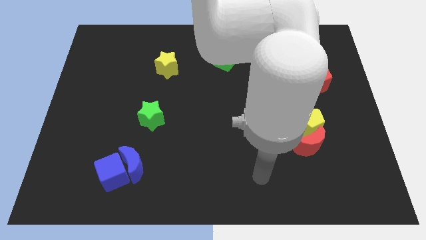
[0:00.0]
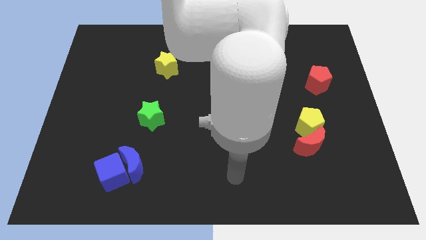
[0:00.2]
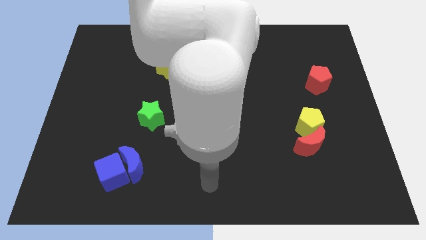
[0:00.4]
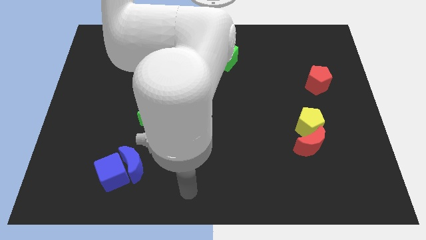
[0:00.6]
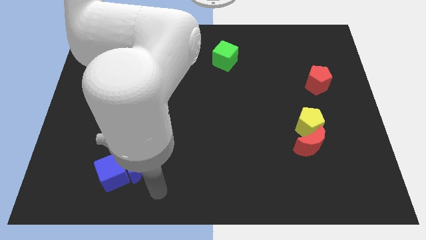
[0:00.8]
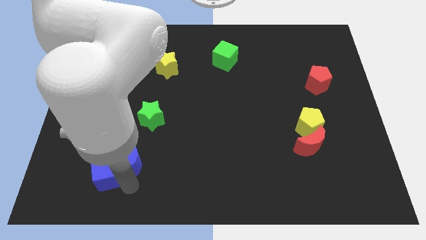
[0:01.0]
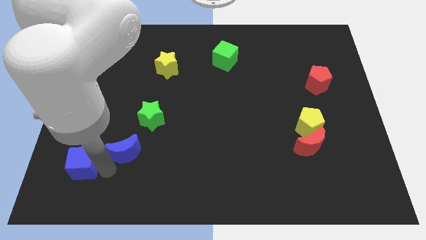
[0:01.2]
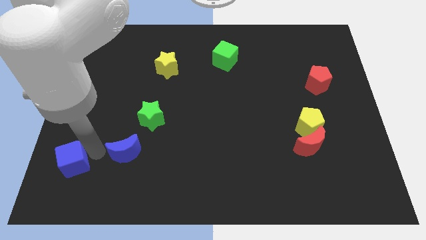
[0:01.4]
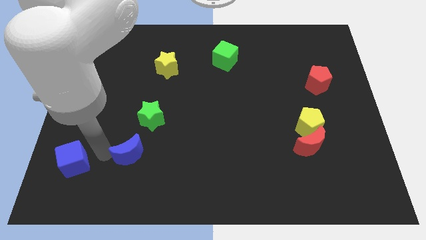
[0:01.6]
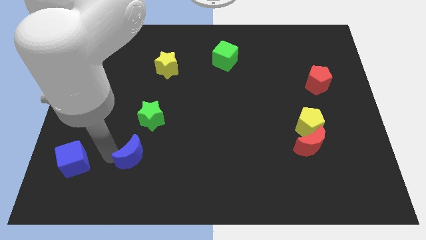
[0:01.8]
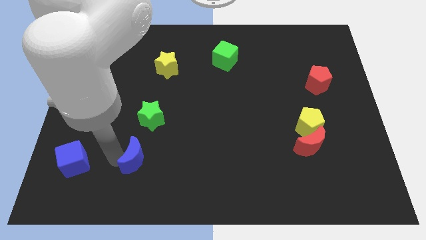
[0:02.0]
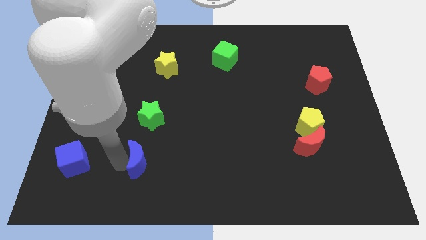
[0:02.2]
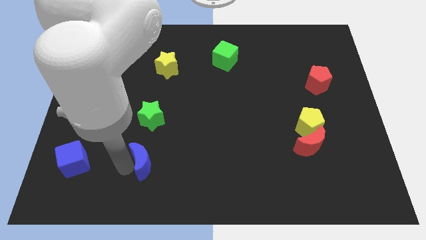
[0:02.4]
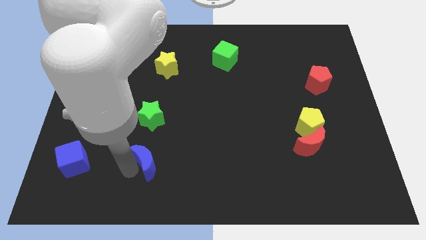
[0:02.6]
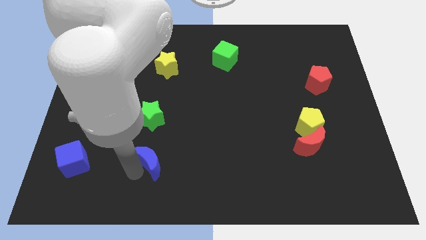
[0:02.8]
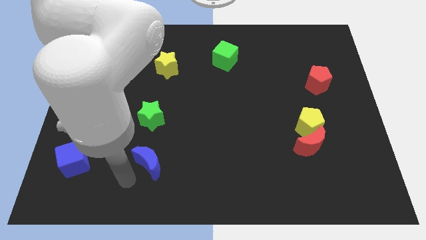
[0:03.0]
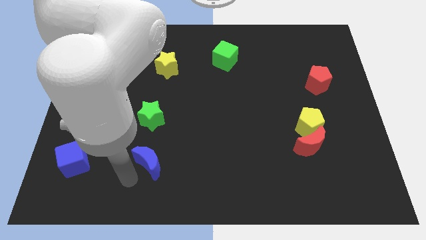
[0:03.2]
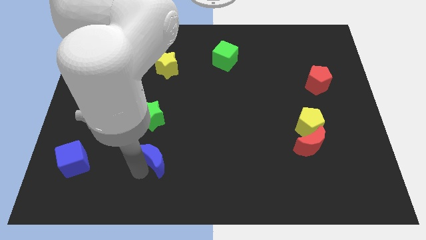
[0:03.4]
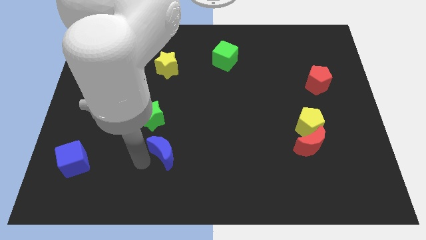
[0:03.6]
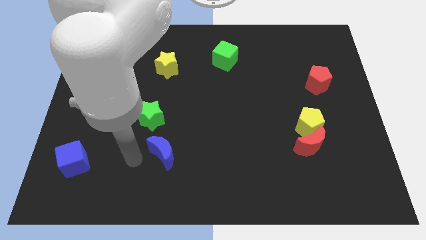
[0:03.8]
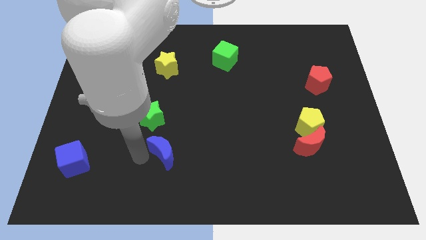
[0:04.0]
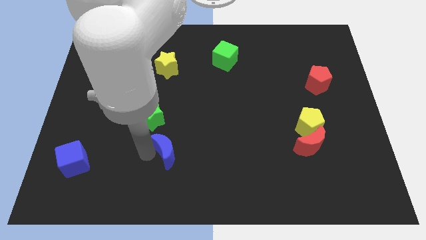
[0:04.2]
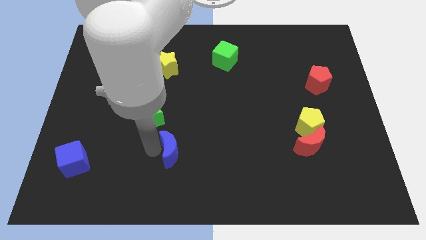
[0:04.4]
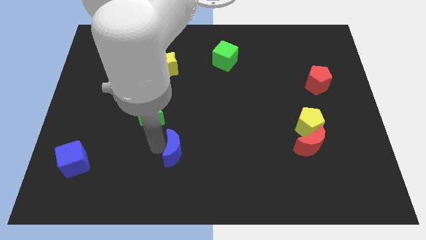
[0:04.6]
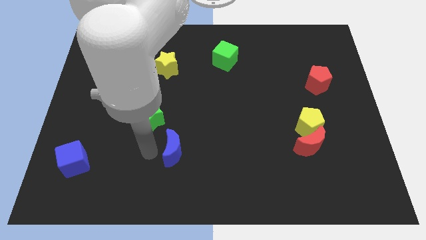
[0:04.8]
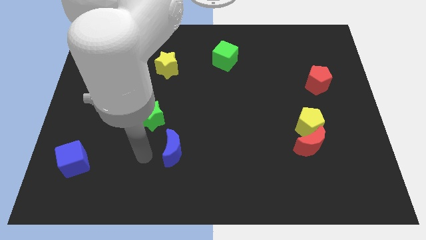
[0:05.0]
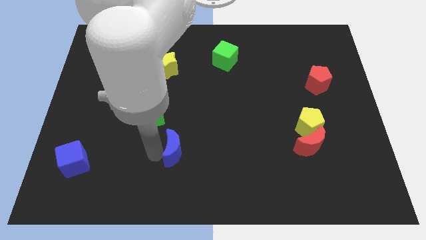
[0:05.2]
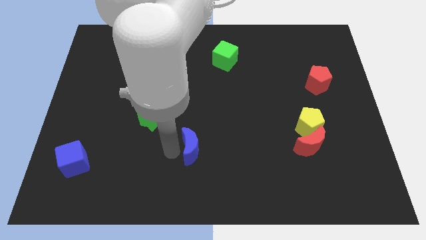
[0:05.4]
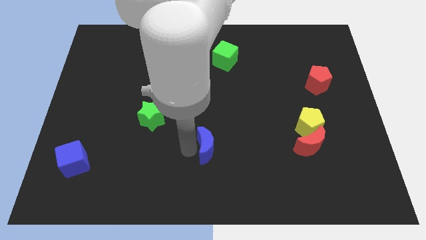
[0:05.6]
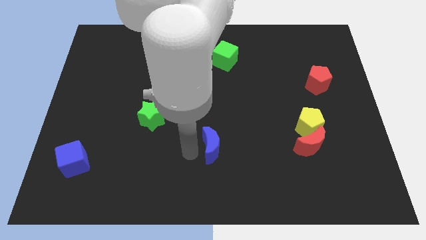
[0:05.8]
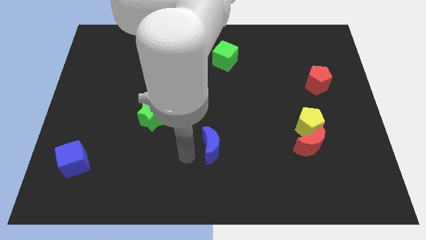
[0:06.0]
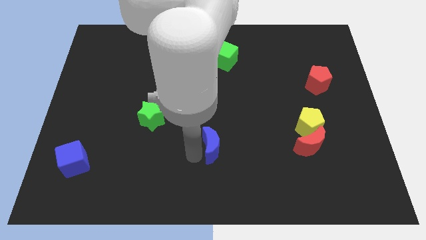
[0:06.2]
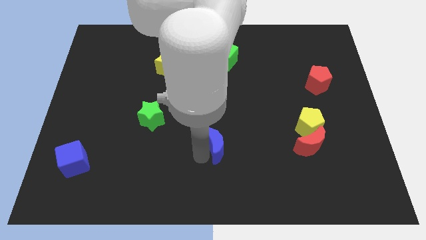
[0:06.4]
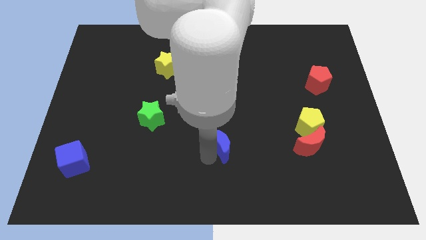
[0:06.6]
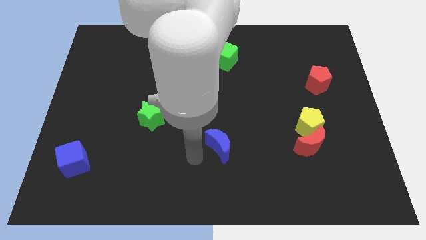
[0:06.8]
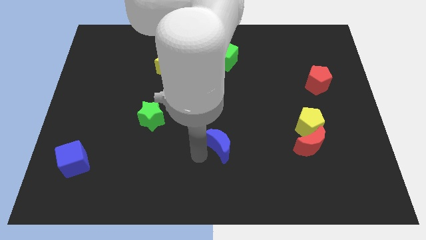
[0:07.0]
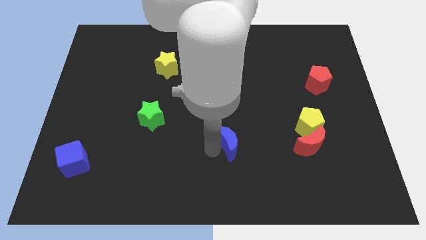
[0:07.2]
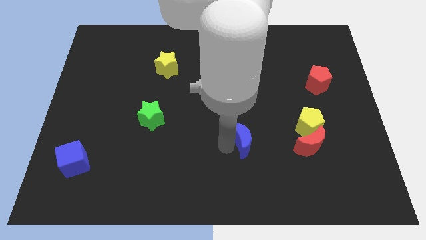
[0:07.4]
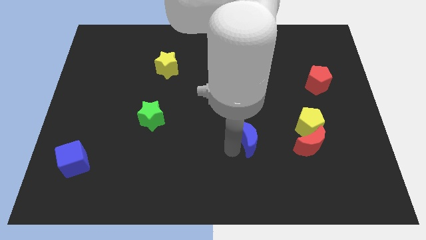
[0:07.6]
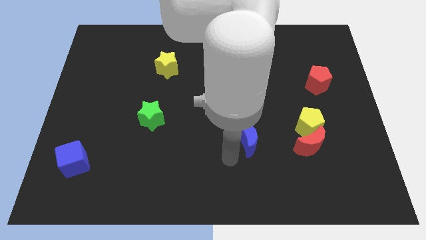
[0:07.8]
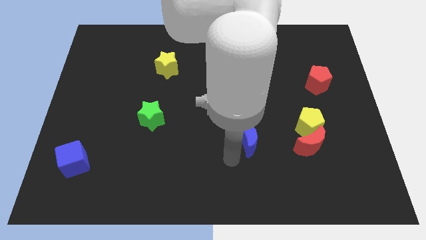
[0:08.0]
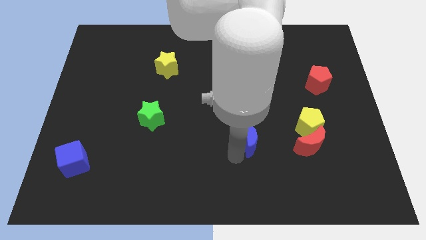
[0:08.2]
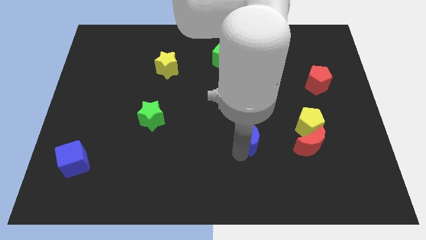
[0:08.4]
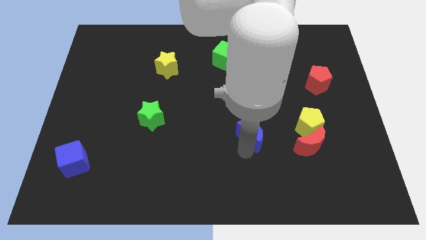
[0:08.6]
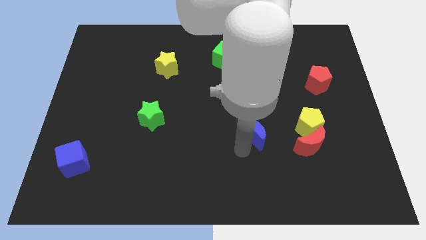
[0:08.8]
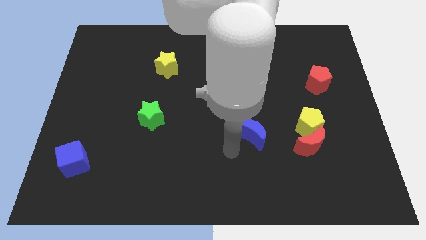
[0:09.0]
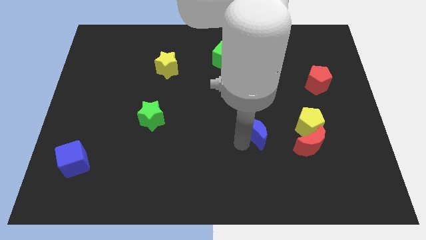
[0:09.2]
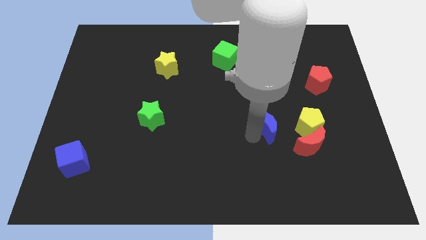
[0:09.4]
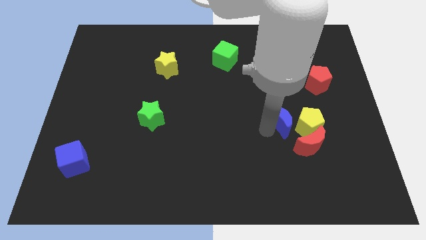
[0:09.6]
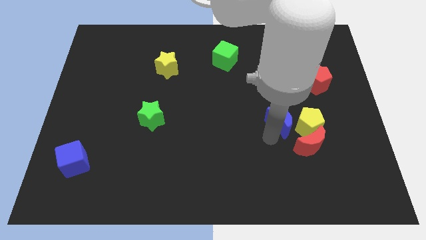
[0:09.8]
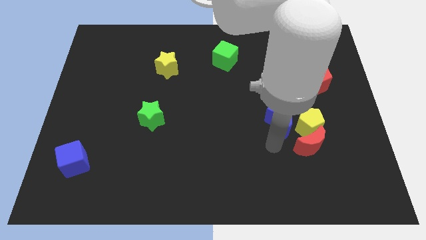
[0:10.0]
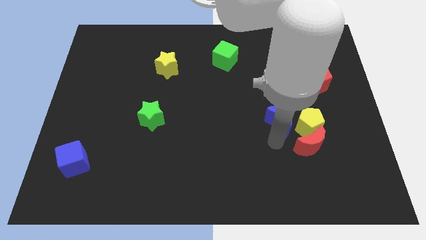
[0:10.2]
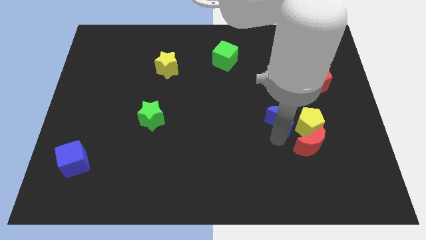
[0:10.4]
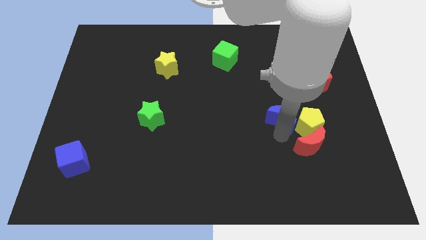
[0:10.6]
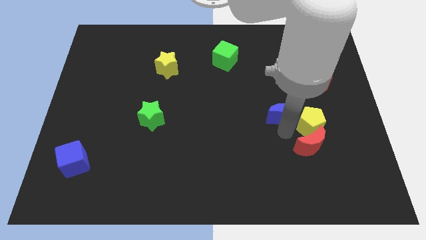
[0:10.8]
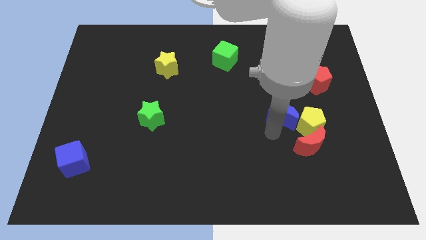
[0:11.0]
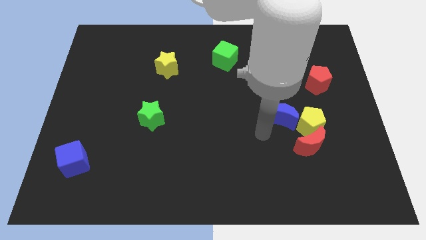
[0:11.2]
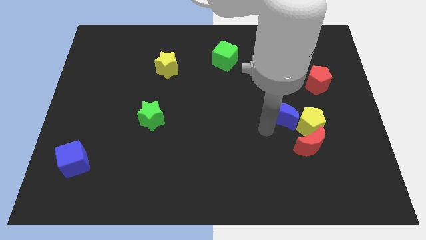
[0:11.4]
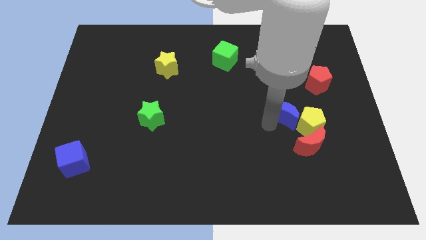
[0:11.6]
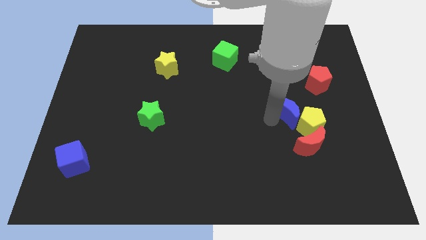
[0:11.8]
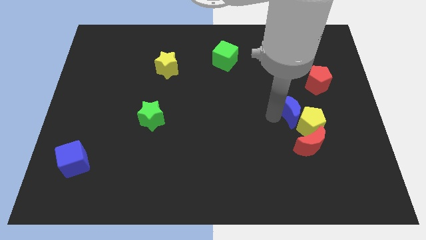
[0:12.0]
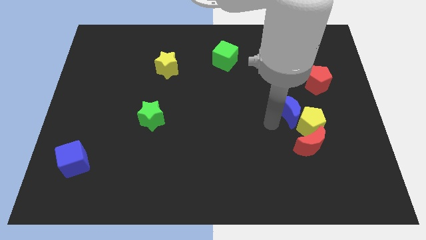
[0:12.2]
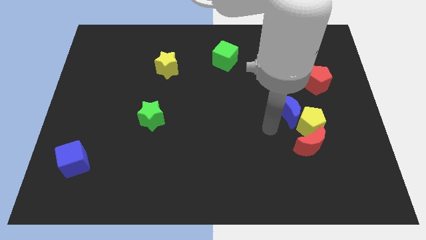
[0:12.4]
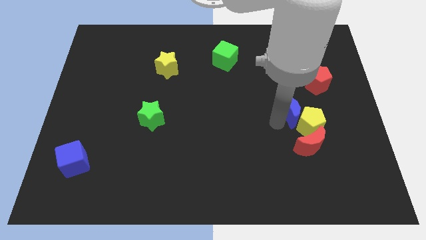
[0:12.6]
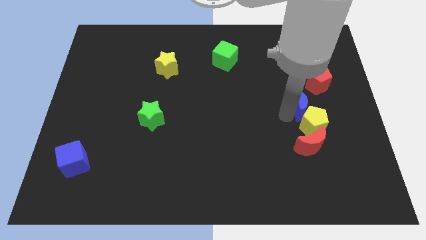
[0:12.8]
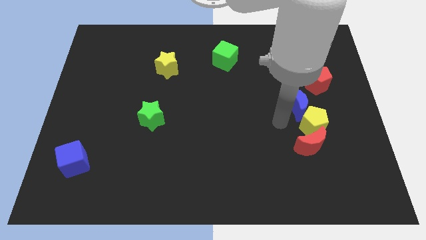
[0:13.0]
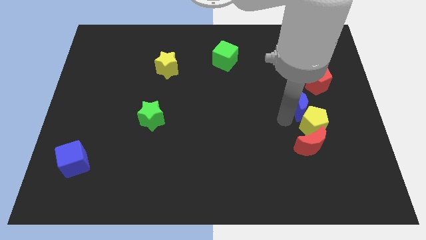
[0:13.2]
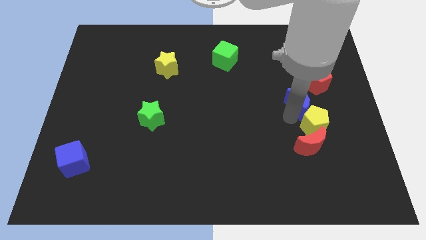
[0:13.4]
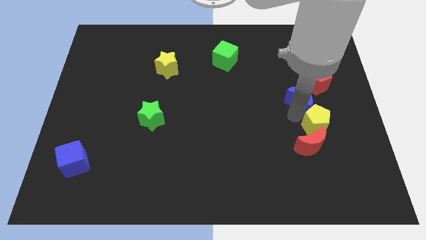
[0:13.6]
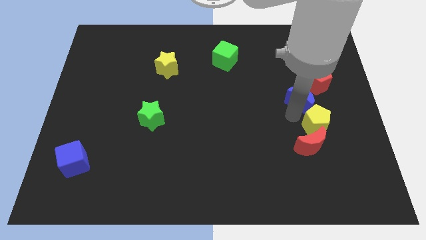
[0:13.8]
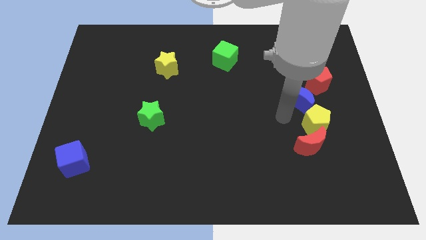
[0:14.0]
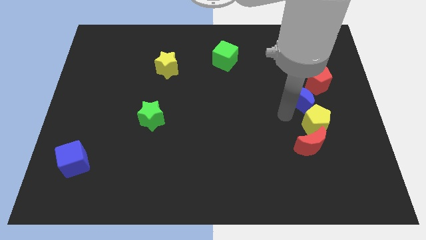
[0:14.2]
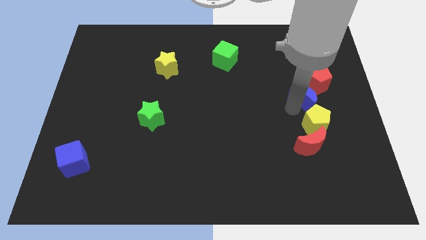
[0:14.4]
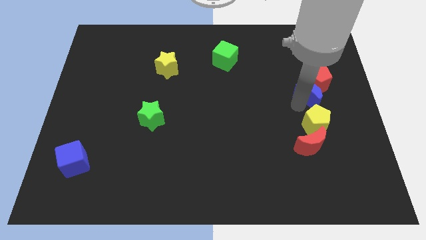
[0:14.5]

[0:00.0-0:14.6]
put the blue moon close to the red pentagon
